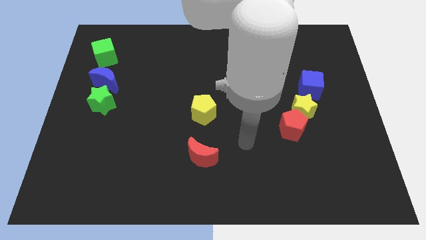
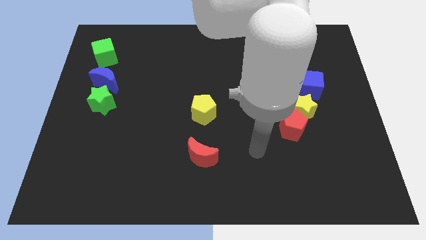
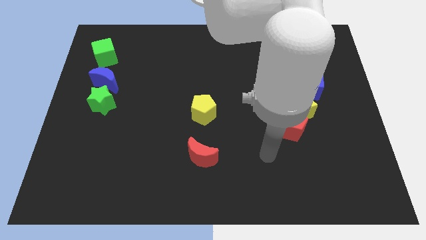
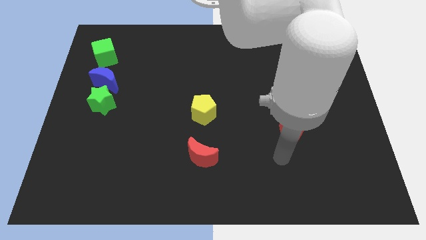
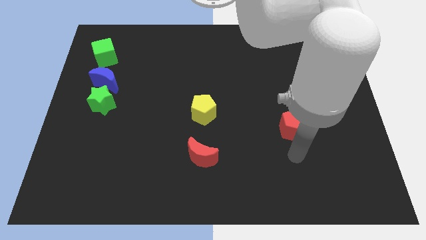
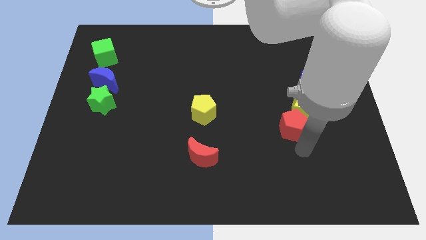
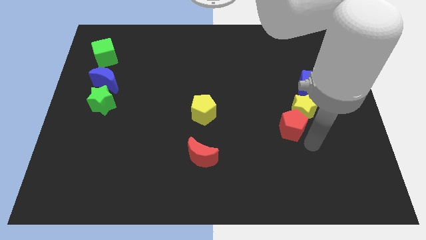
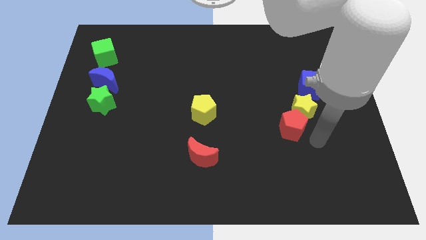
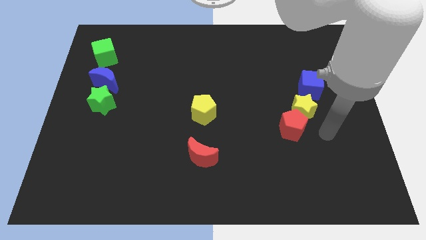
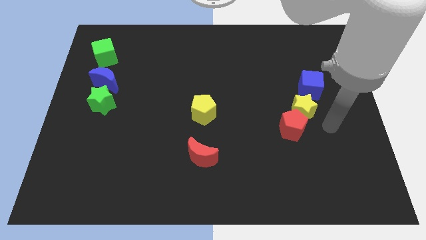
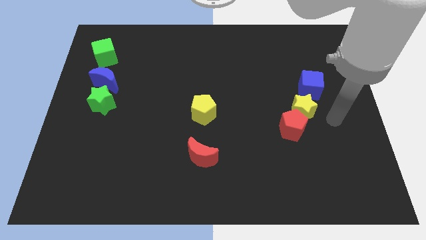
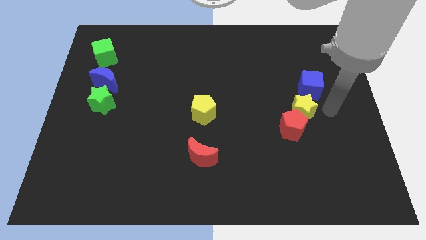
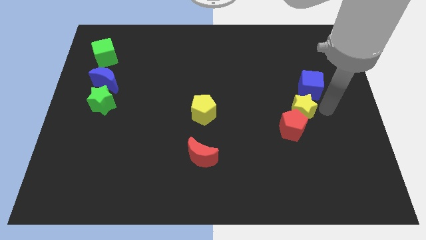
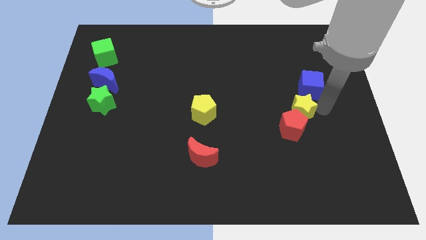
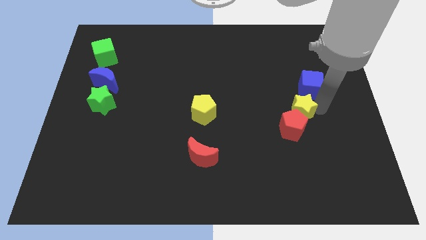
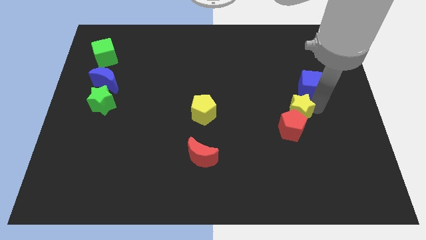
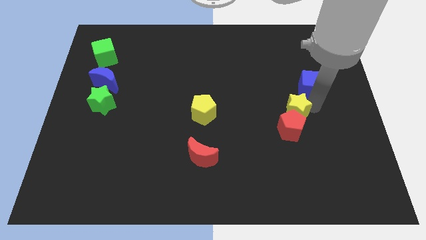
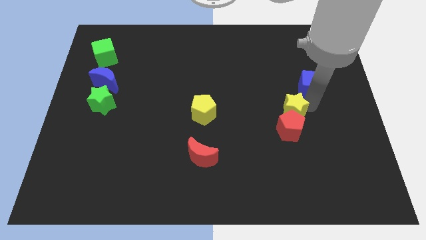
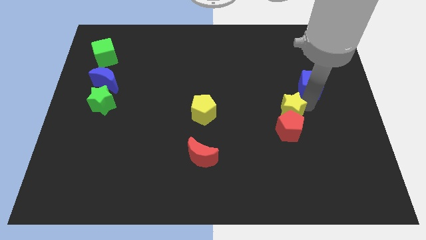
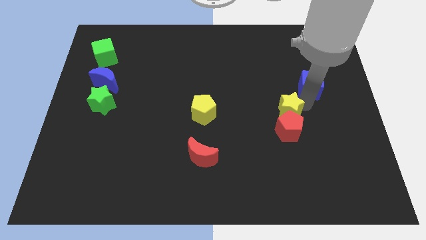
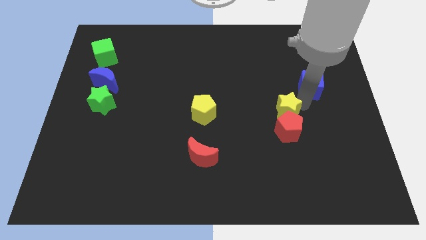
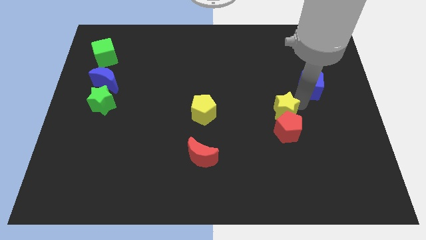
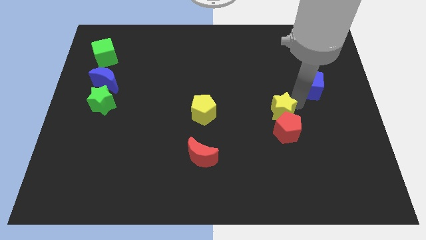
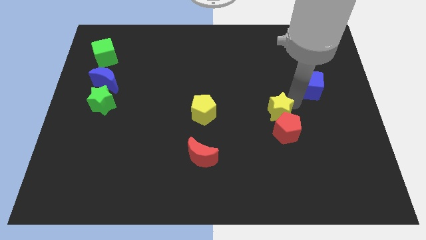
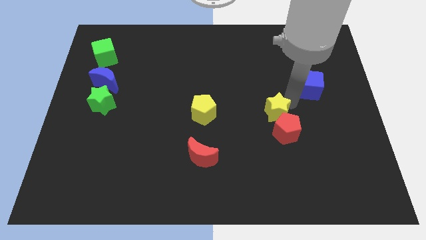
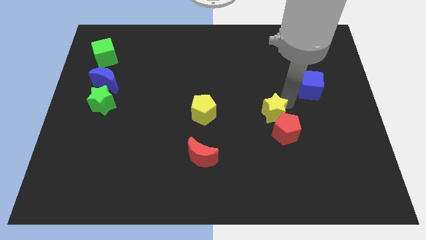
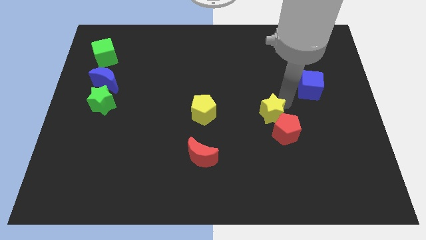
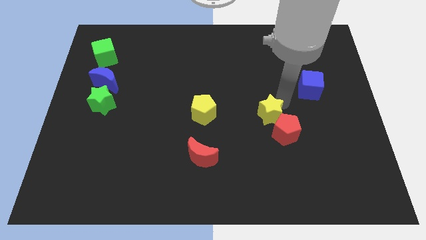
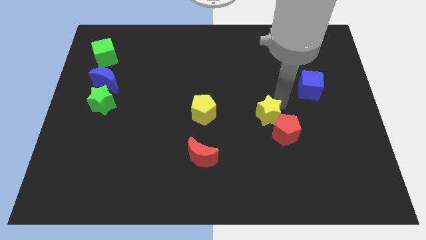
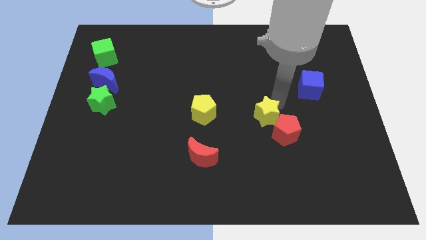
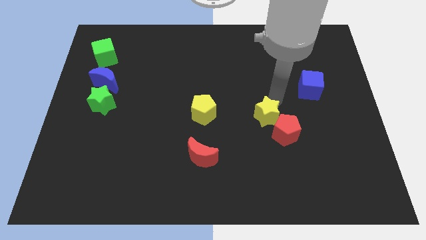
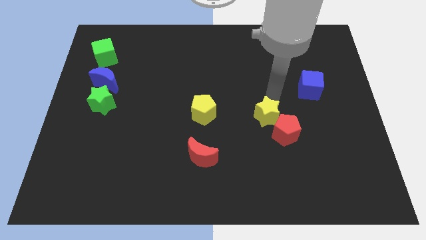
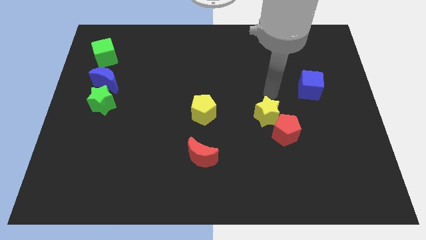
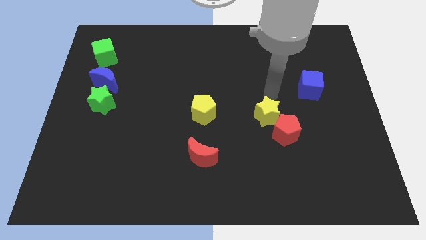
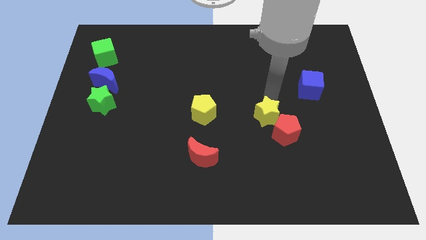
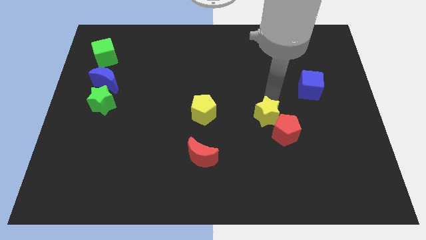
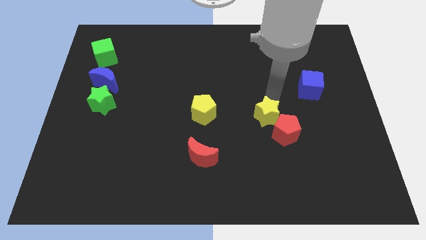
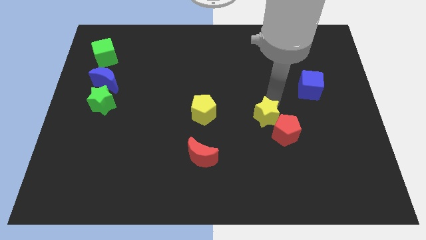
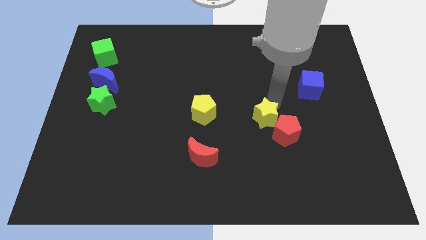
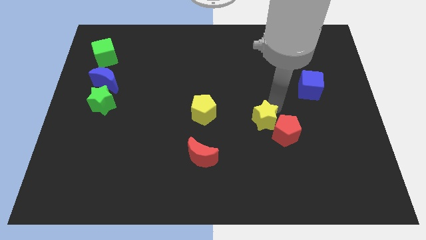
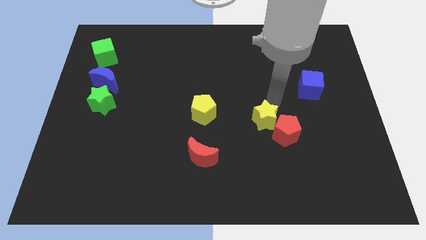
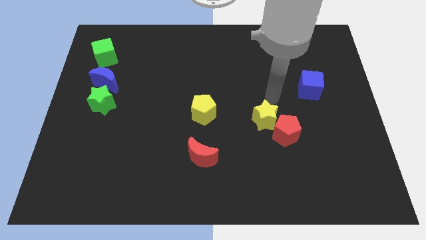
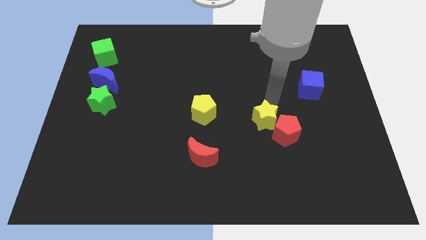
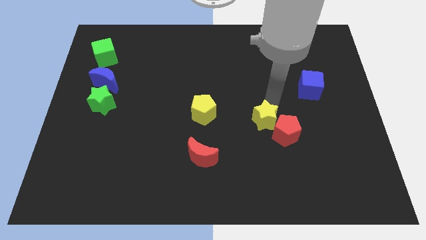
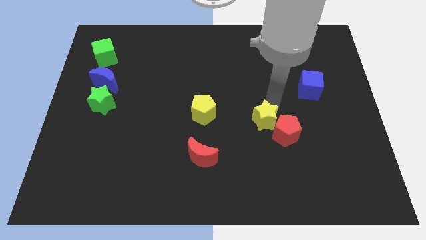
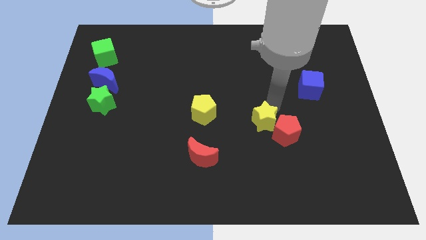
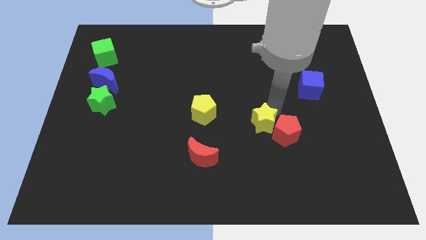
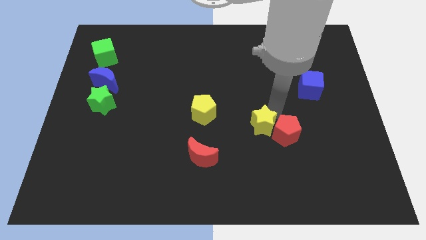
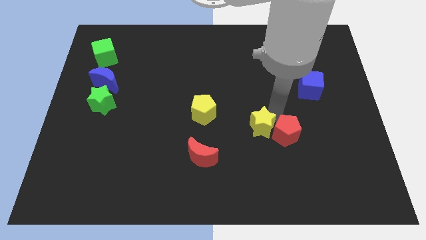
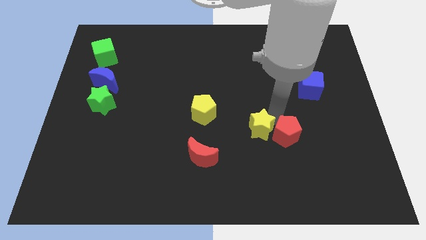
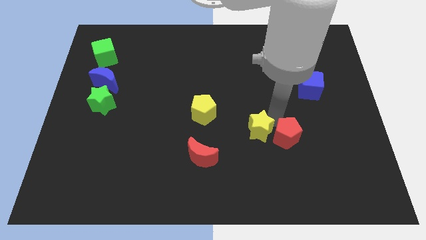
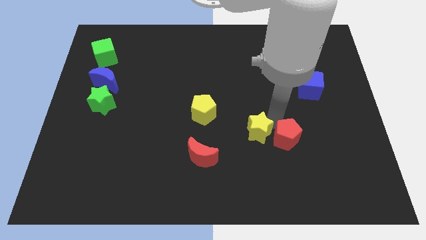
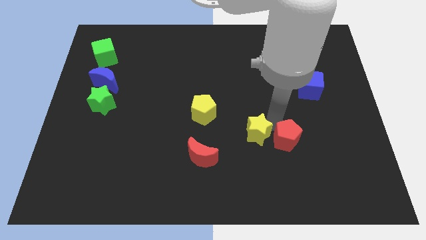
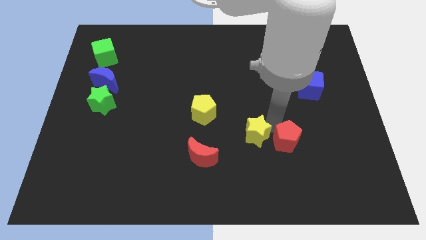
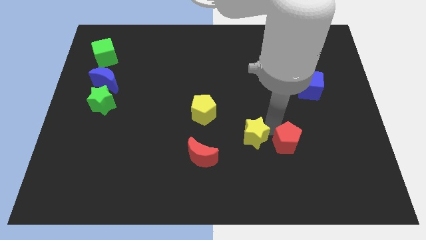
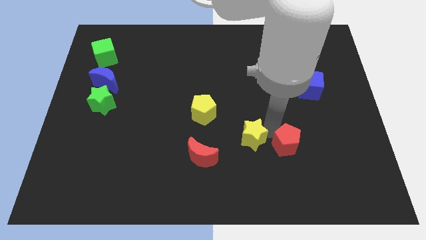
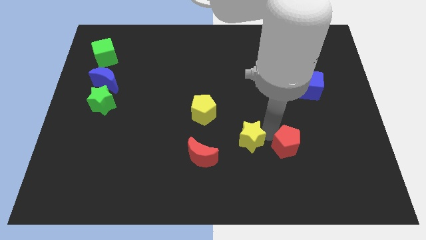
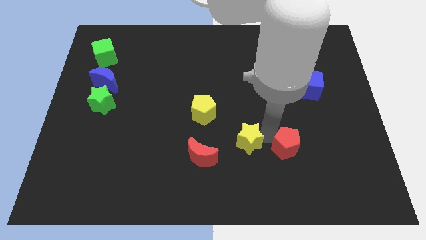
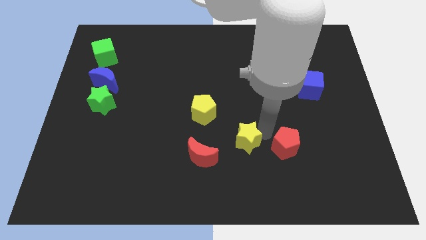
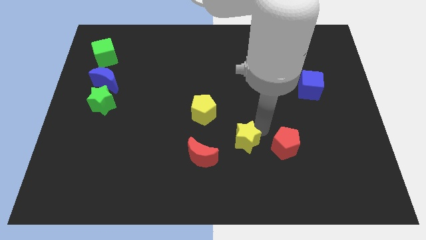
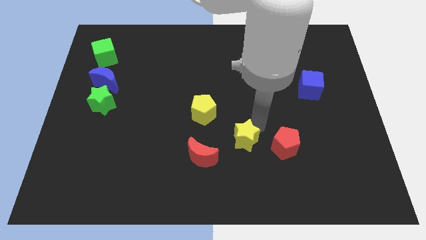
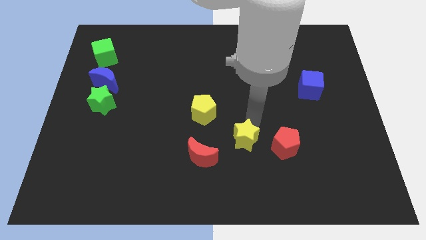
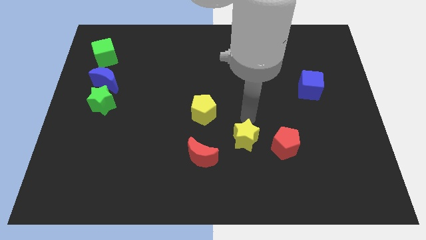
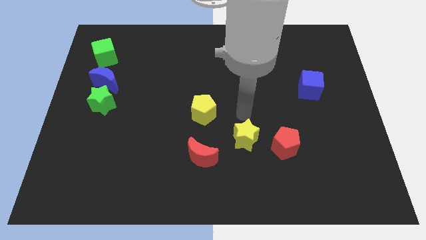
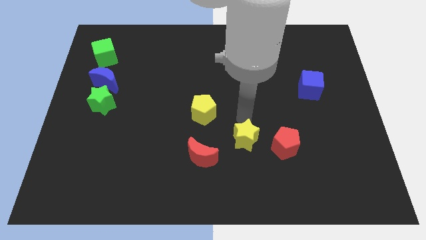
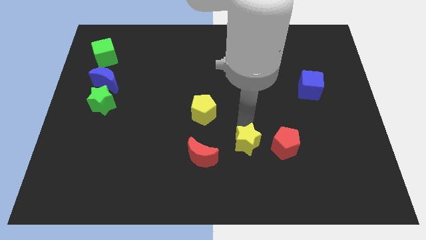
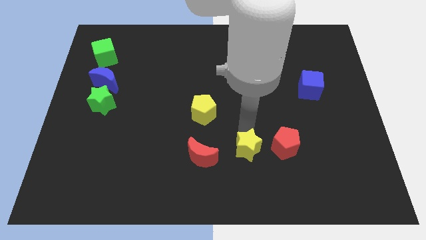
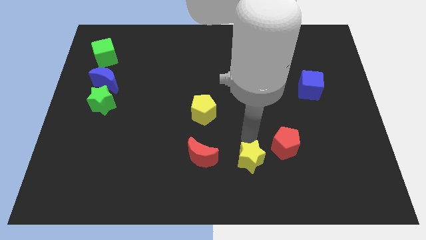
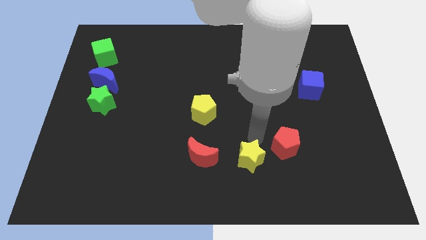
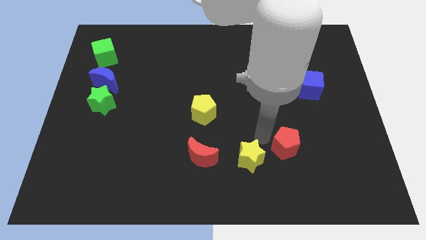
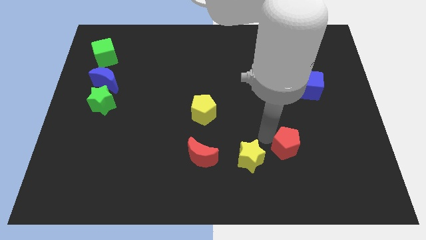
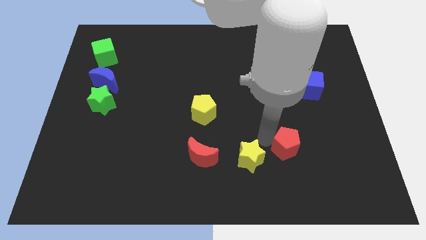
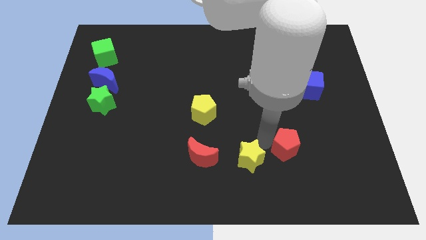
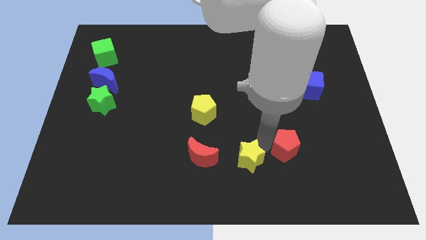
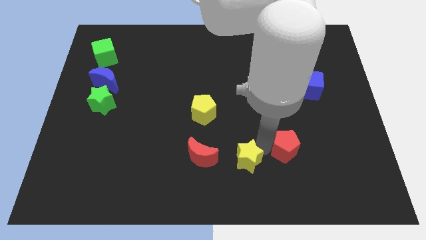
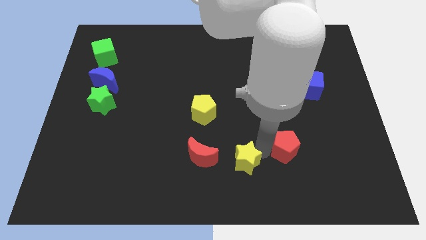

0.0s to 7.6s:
push the yellow star to the bottom
